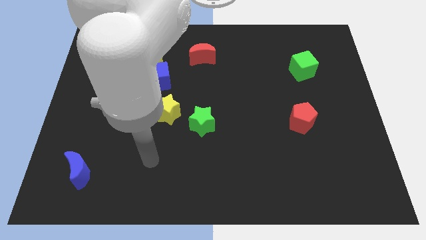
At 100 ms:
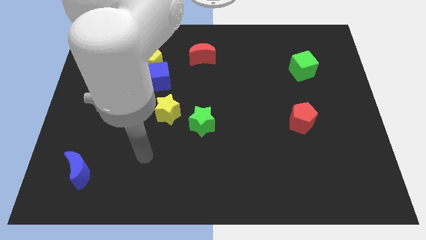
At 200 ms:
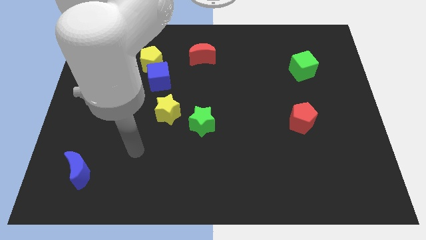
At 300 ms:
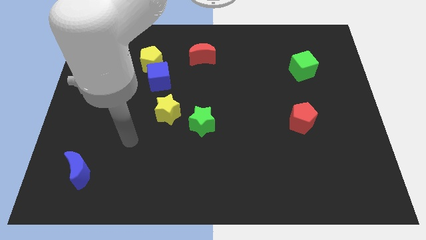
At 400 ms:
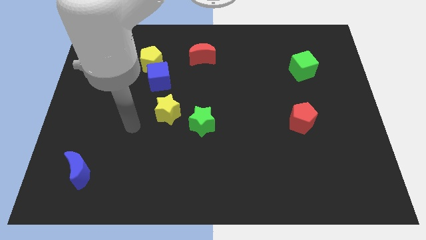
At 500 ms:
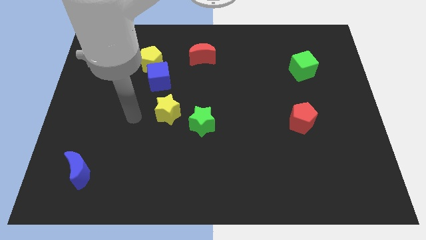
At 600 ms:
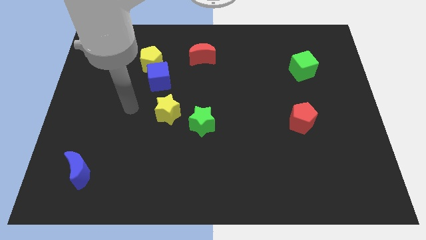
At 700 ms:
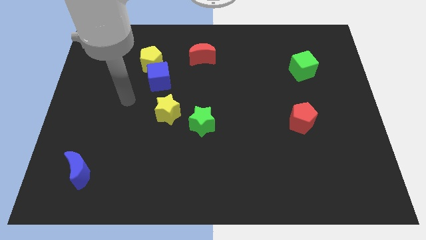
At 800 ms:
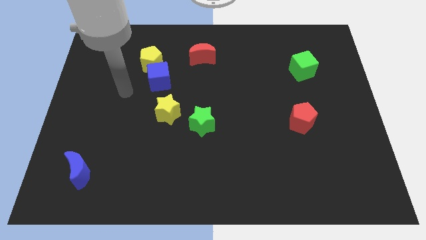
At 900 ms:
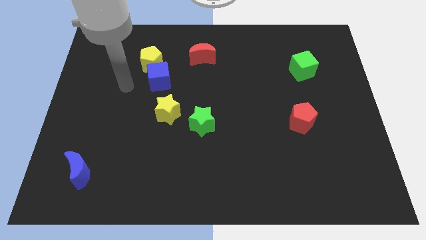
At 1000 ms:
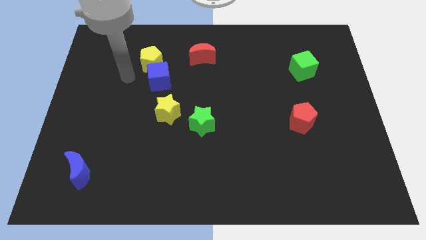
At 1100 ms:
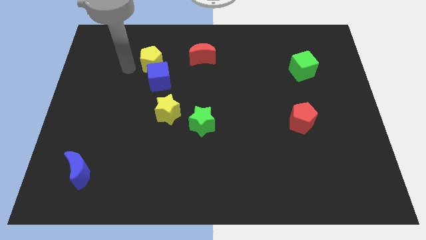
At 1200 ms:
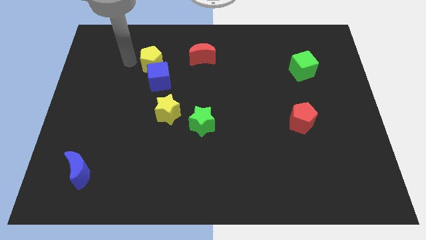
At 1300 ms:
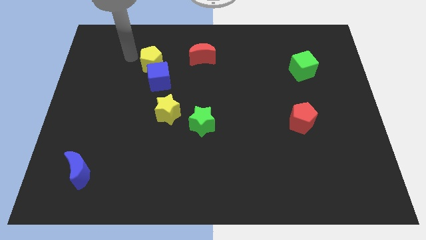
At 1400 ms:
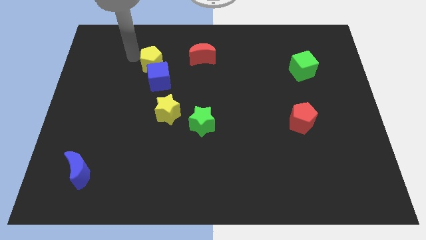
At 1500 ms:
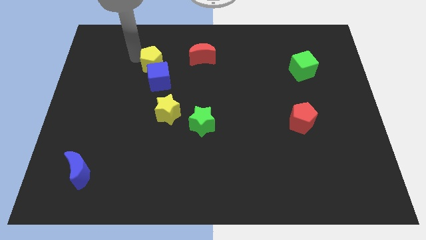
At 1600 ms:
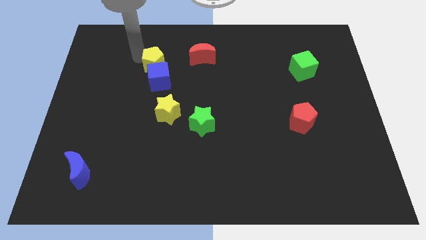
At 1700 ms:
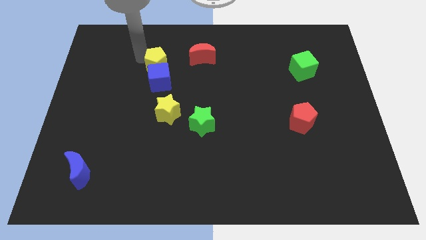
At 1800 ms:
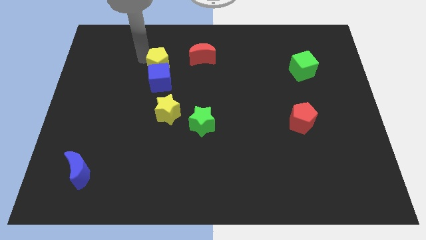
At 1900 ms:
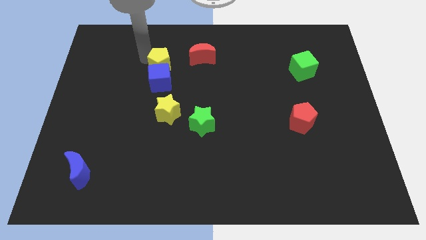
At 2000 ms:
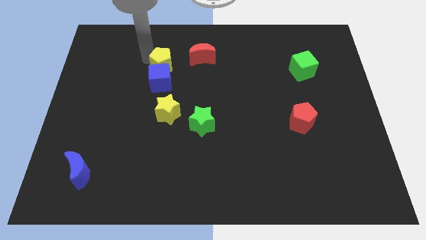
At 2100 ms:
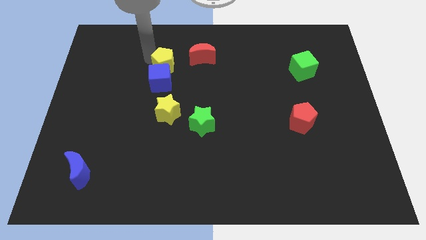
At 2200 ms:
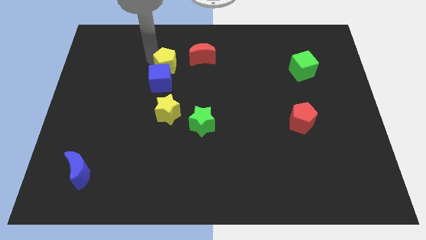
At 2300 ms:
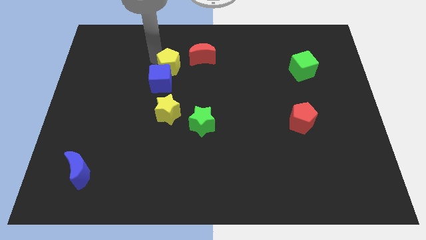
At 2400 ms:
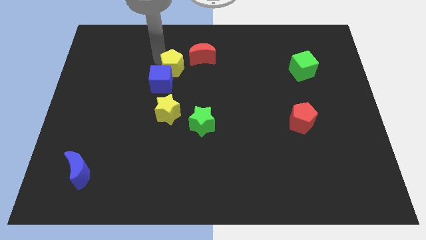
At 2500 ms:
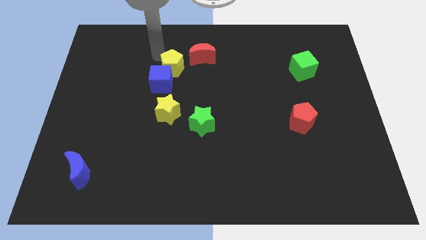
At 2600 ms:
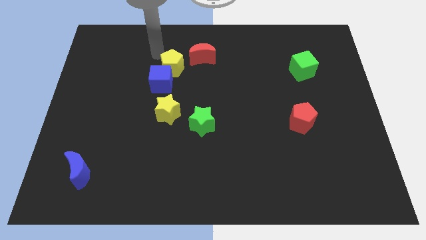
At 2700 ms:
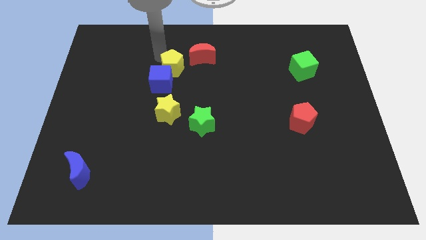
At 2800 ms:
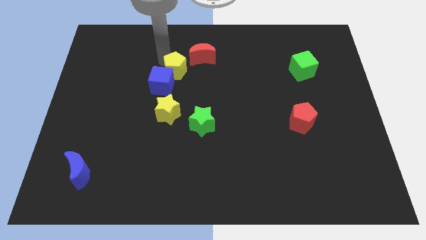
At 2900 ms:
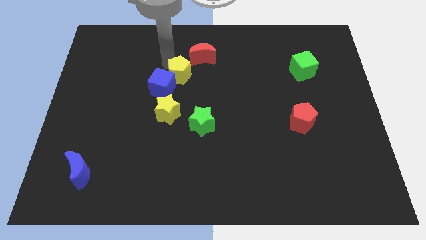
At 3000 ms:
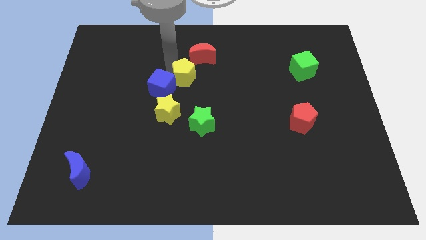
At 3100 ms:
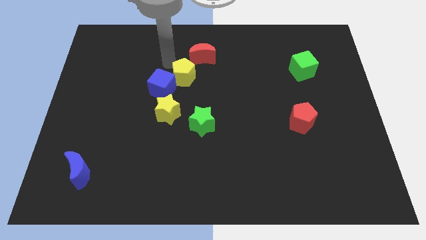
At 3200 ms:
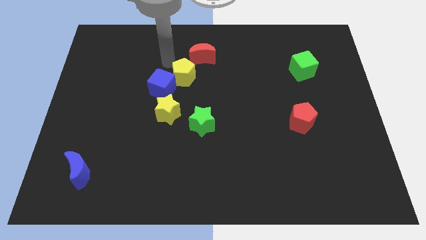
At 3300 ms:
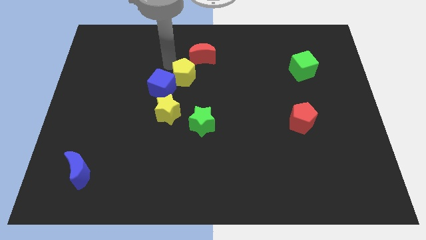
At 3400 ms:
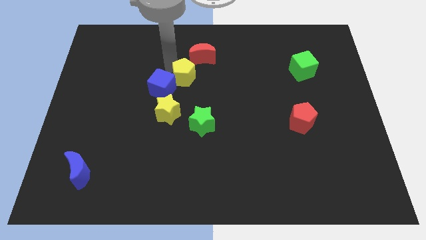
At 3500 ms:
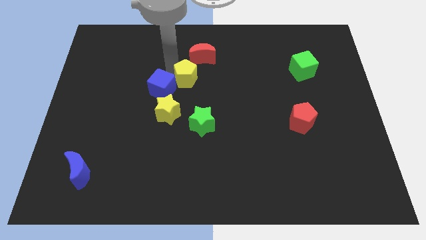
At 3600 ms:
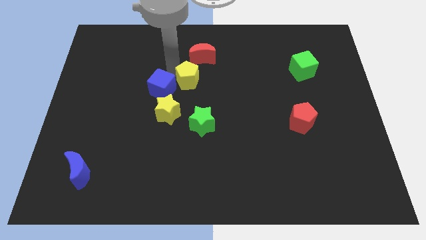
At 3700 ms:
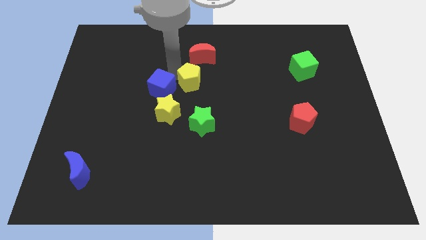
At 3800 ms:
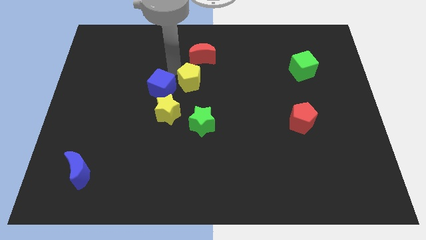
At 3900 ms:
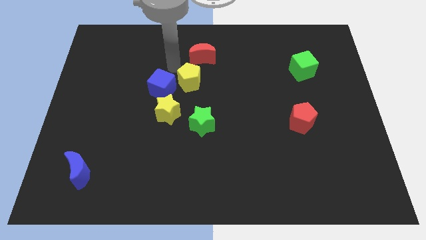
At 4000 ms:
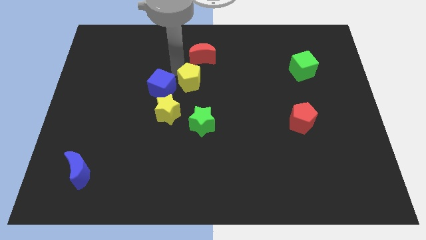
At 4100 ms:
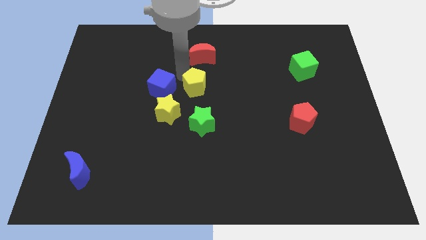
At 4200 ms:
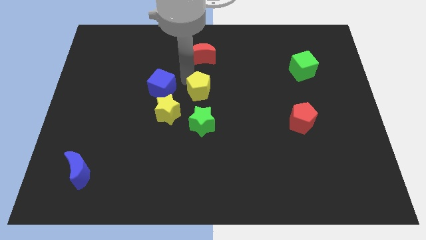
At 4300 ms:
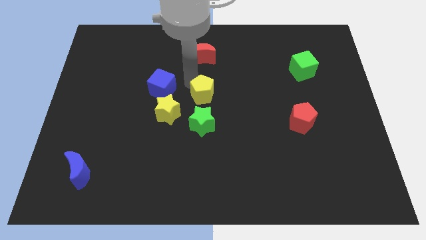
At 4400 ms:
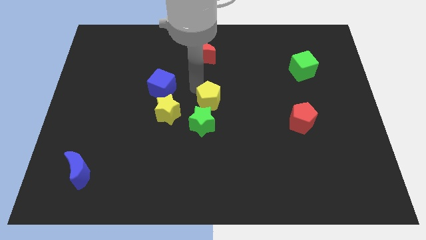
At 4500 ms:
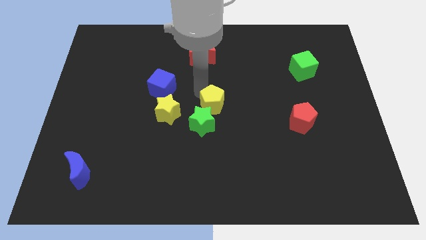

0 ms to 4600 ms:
slide the yellow pentagon downwards and right diagonally

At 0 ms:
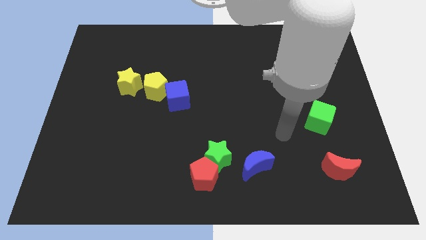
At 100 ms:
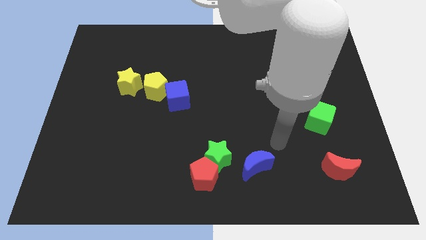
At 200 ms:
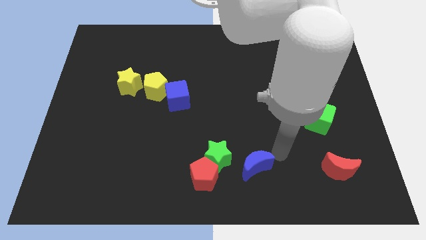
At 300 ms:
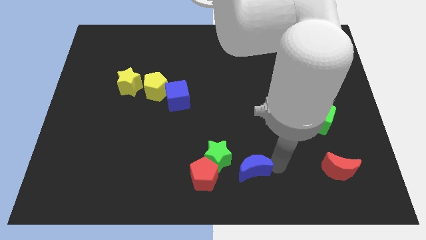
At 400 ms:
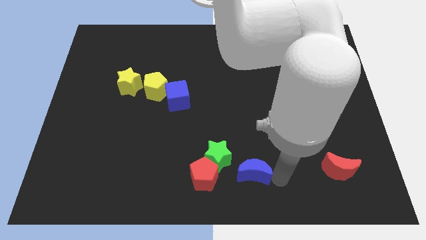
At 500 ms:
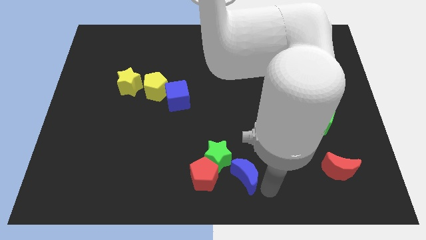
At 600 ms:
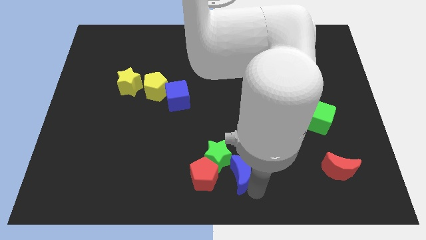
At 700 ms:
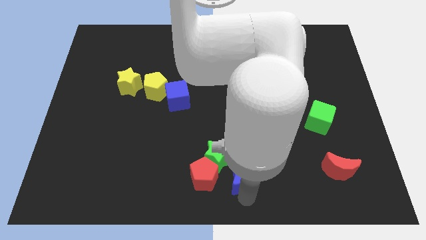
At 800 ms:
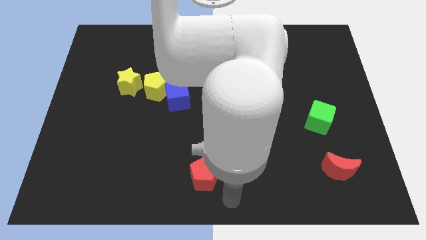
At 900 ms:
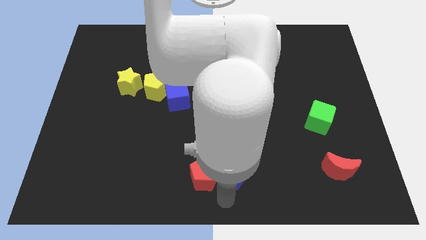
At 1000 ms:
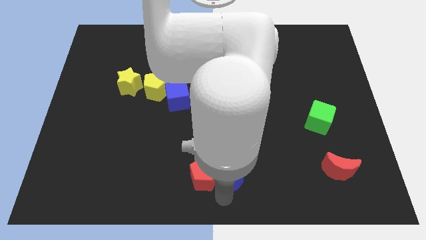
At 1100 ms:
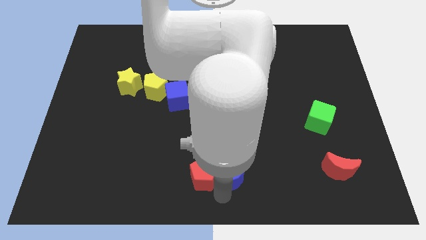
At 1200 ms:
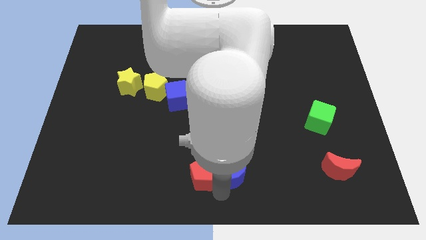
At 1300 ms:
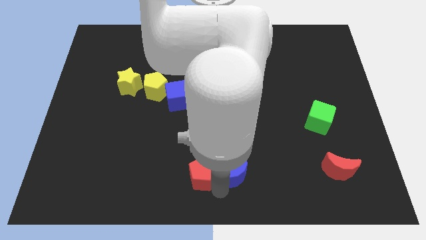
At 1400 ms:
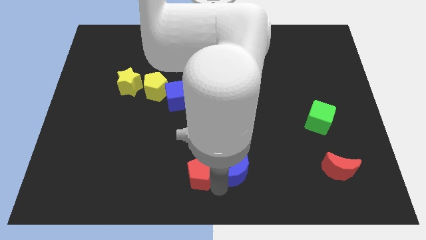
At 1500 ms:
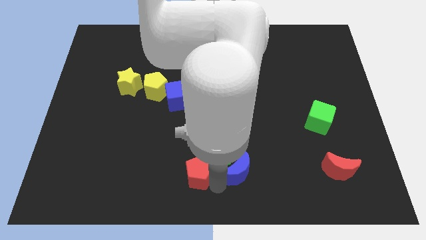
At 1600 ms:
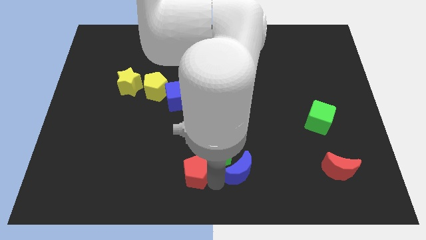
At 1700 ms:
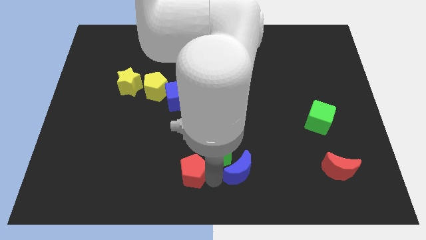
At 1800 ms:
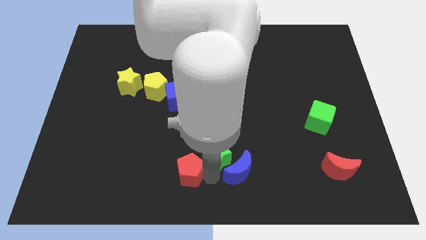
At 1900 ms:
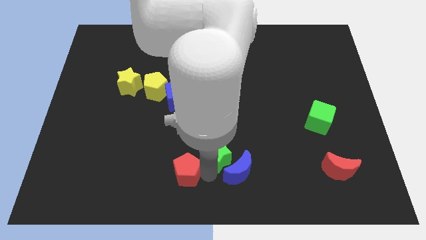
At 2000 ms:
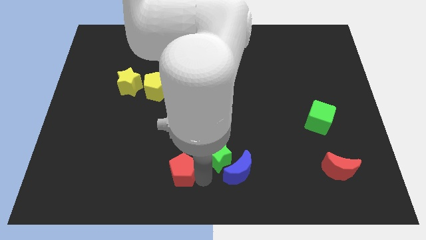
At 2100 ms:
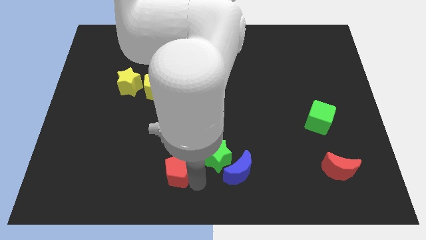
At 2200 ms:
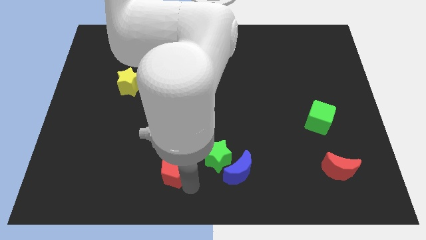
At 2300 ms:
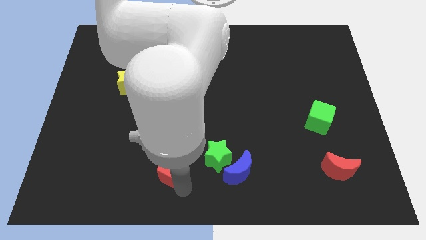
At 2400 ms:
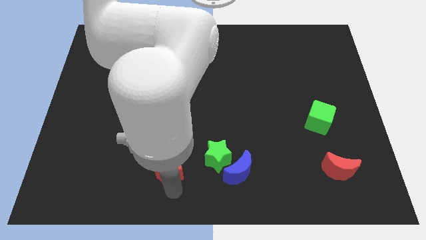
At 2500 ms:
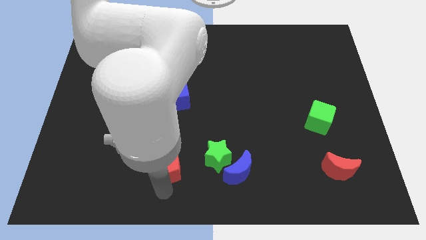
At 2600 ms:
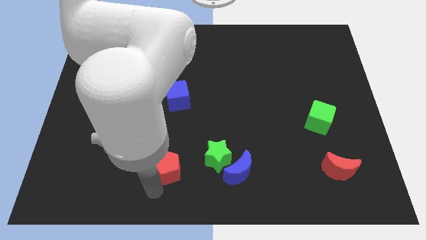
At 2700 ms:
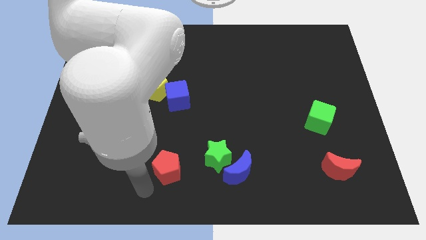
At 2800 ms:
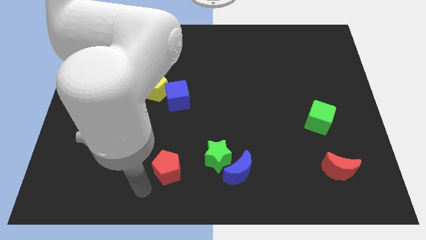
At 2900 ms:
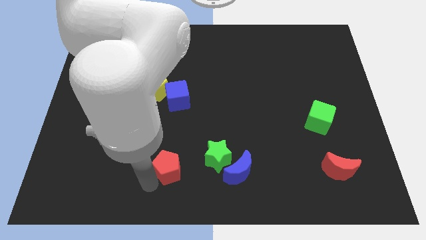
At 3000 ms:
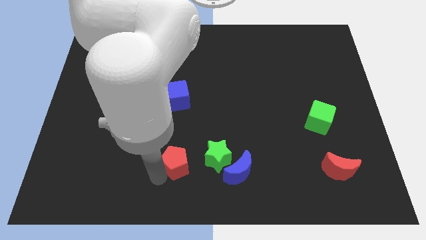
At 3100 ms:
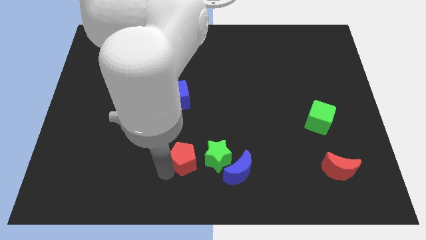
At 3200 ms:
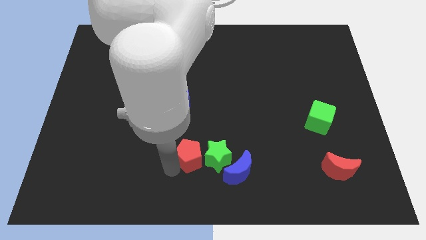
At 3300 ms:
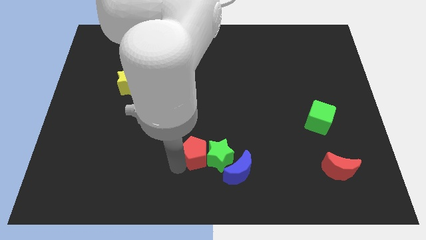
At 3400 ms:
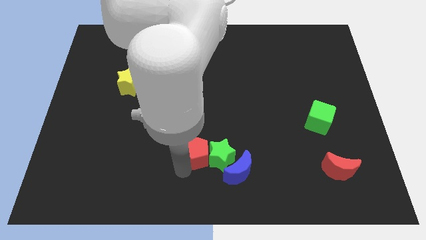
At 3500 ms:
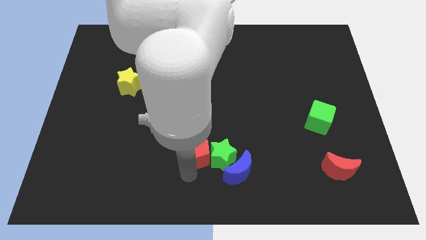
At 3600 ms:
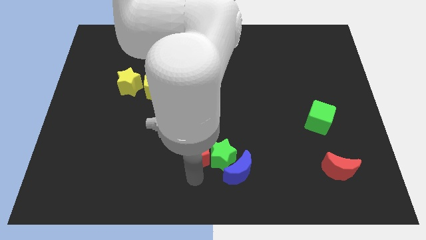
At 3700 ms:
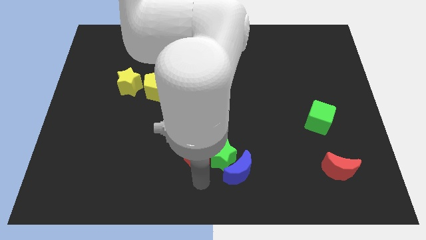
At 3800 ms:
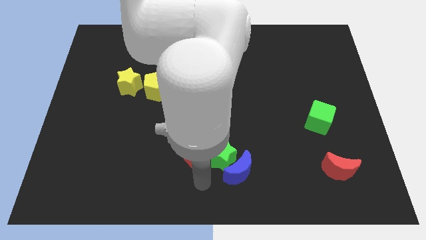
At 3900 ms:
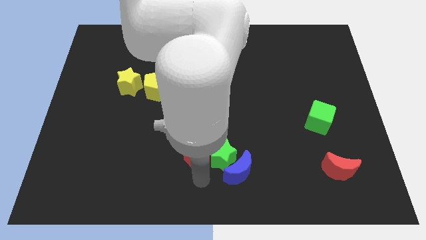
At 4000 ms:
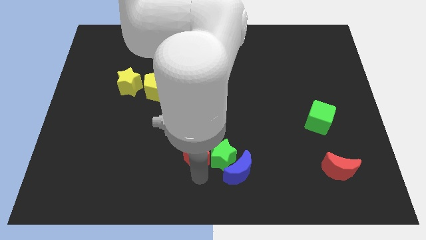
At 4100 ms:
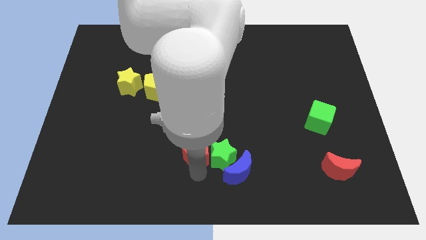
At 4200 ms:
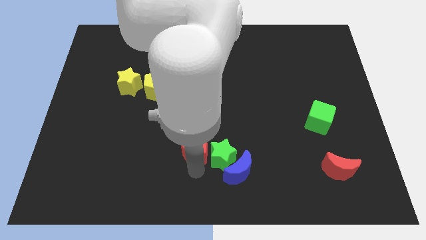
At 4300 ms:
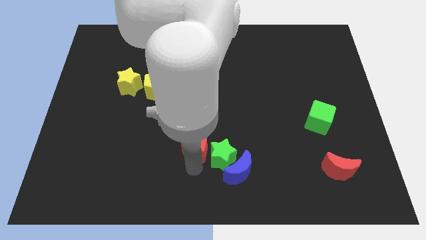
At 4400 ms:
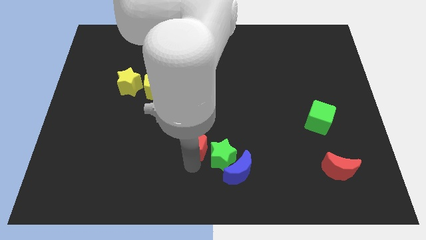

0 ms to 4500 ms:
slightly push the red pentagon upwards
